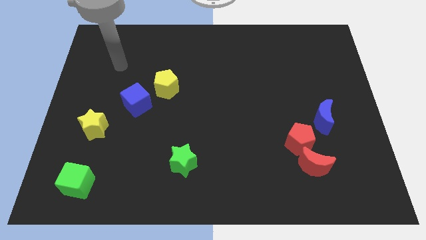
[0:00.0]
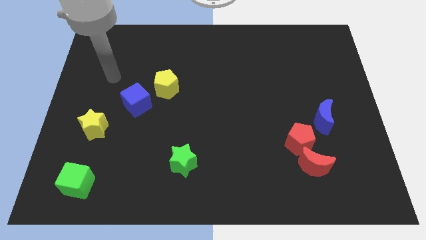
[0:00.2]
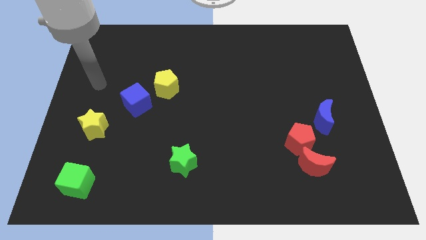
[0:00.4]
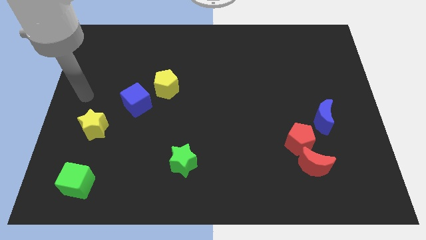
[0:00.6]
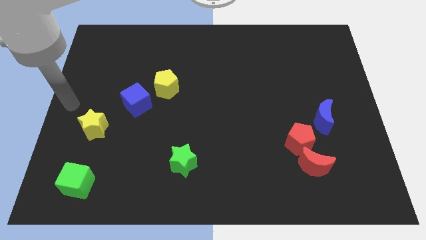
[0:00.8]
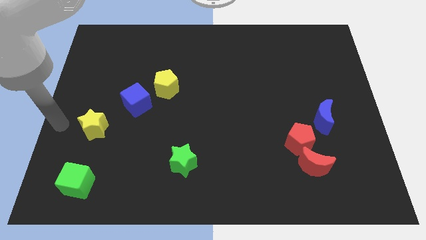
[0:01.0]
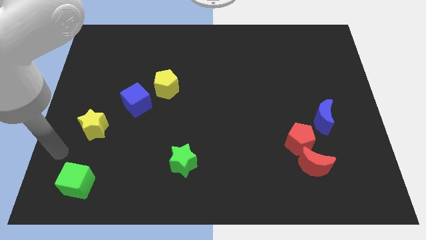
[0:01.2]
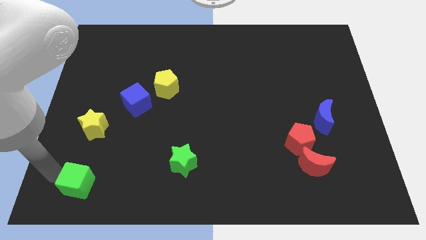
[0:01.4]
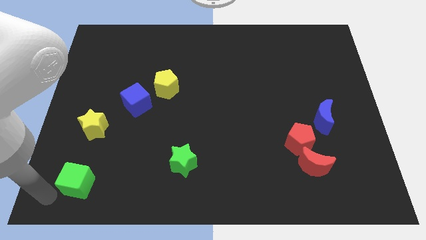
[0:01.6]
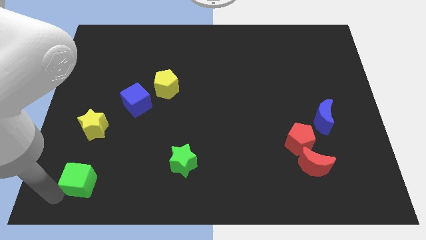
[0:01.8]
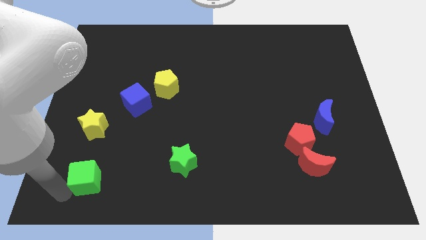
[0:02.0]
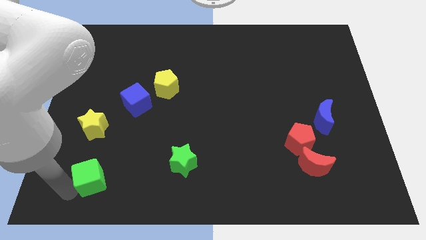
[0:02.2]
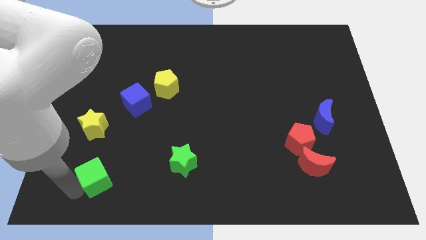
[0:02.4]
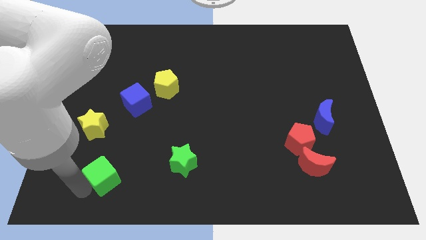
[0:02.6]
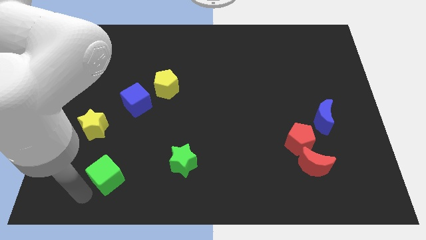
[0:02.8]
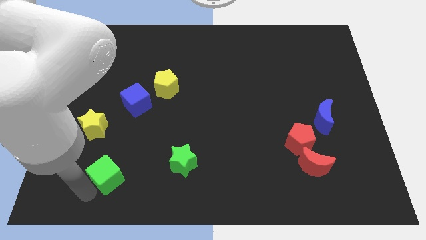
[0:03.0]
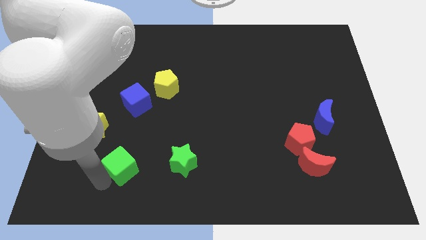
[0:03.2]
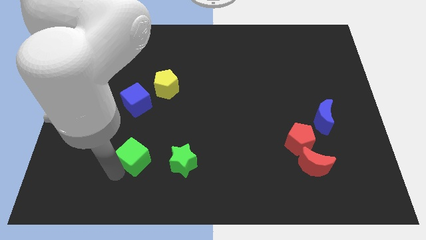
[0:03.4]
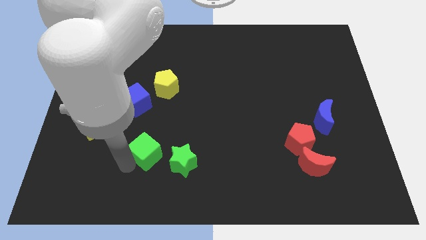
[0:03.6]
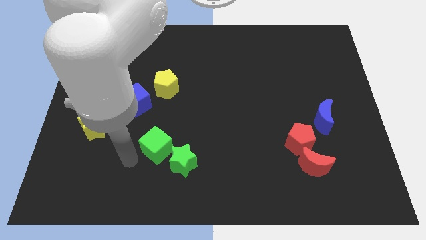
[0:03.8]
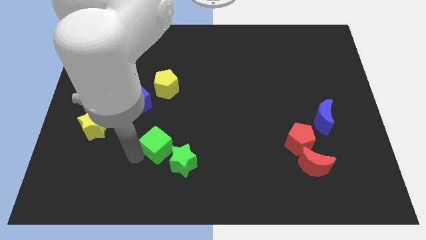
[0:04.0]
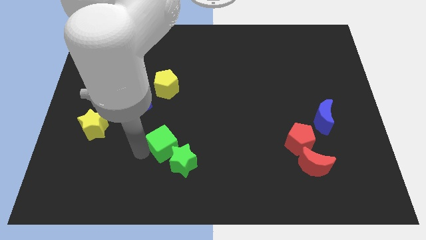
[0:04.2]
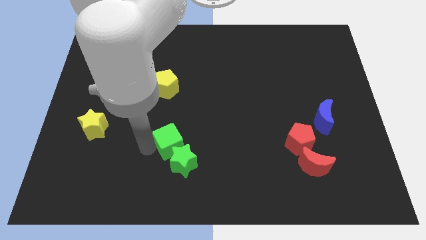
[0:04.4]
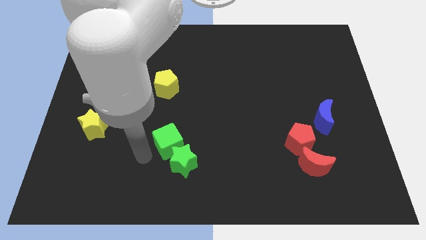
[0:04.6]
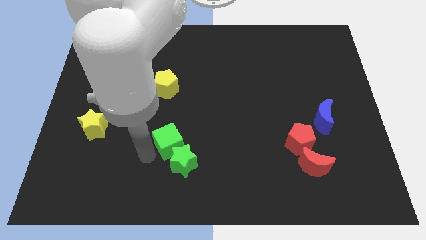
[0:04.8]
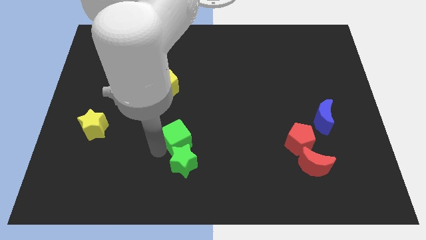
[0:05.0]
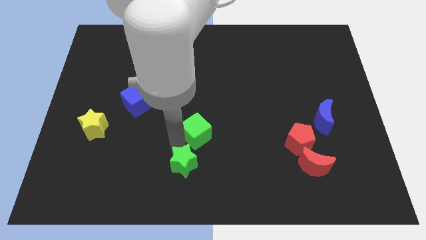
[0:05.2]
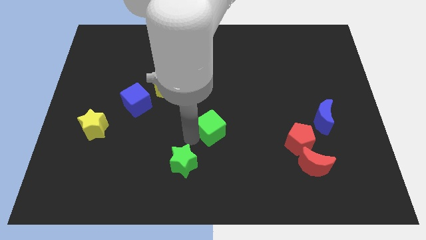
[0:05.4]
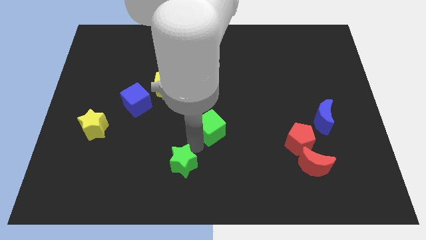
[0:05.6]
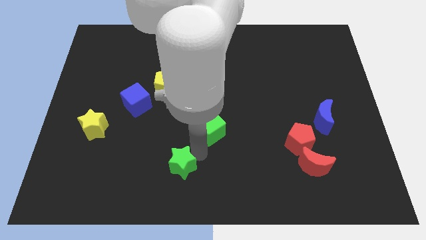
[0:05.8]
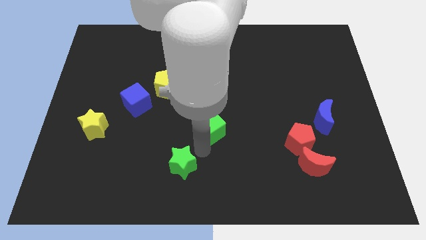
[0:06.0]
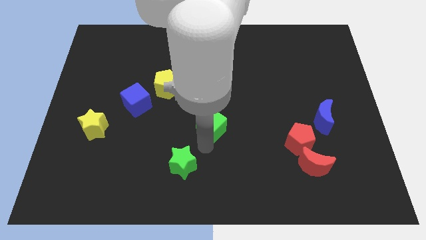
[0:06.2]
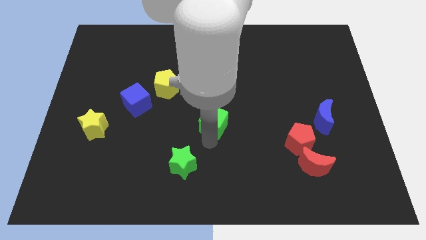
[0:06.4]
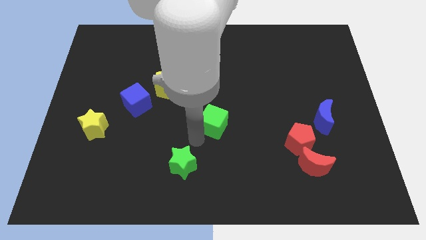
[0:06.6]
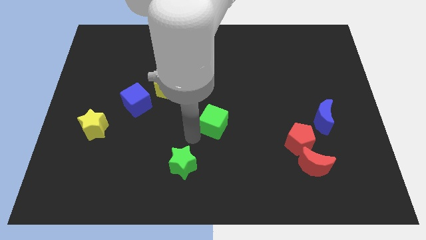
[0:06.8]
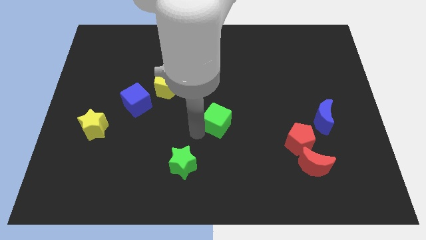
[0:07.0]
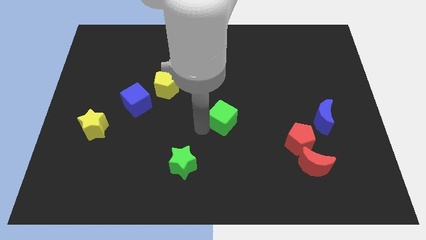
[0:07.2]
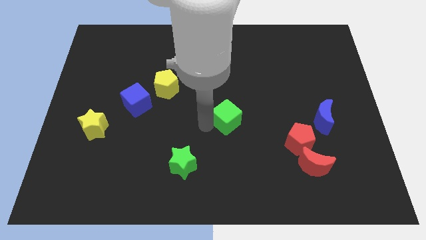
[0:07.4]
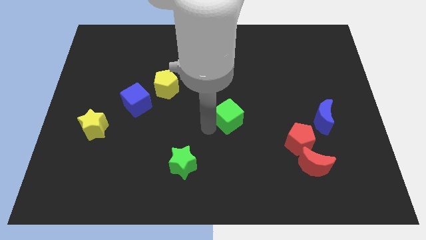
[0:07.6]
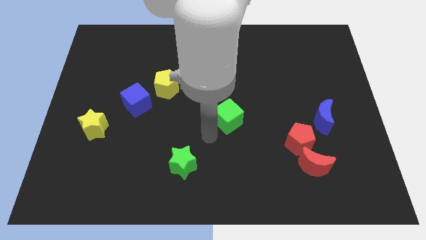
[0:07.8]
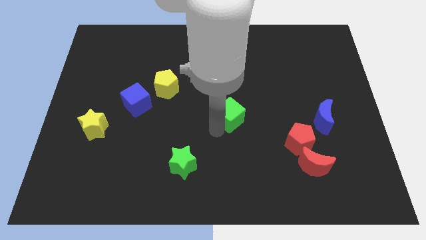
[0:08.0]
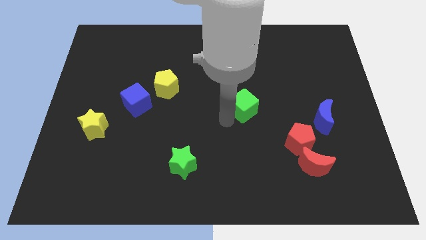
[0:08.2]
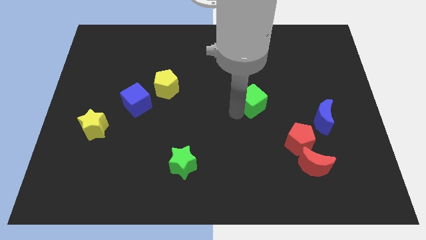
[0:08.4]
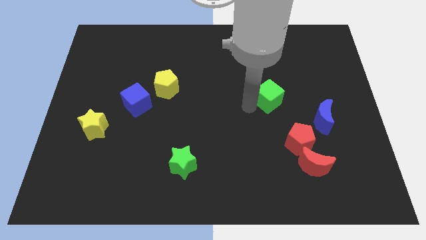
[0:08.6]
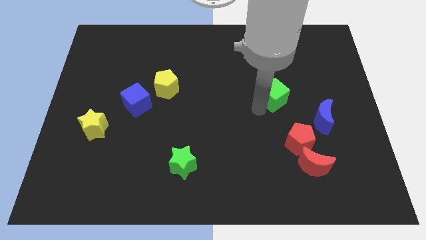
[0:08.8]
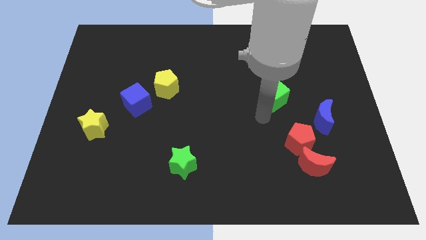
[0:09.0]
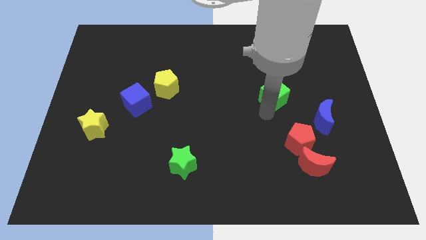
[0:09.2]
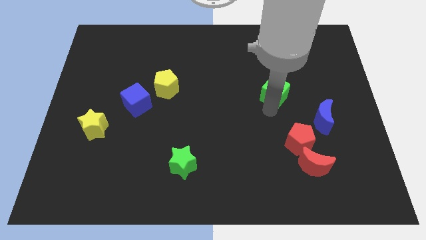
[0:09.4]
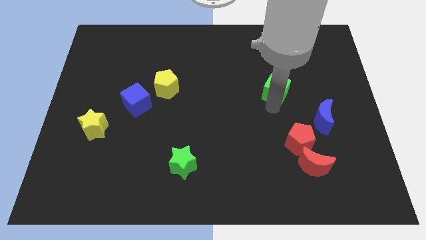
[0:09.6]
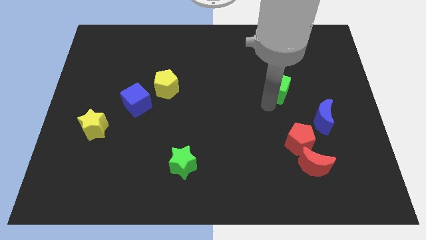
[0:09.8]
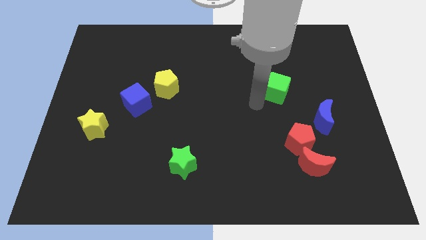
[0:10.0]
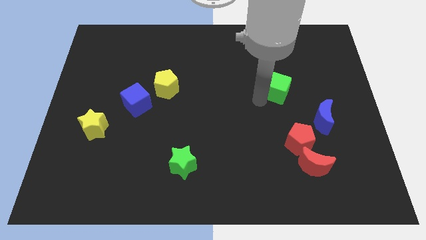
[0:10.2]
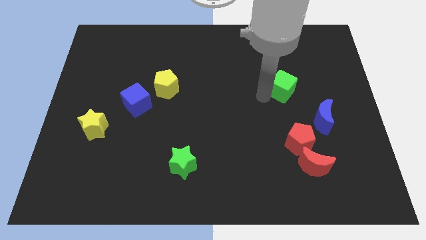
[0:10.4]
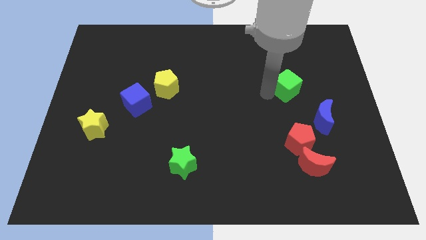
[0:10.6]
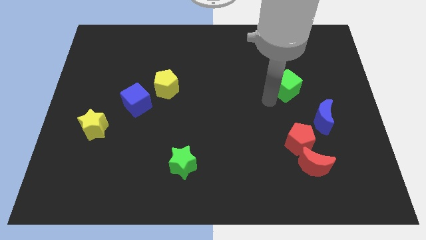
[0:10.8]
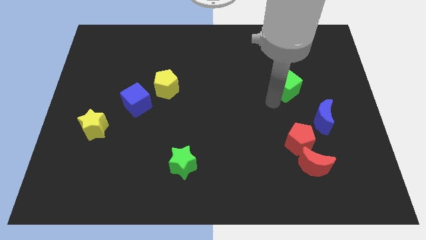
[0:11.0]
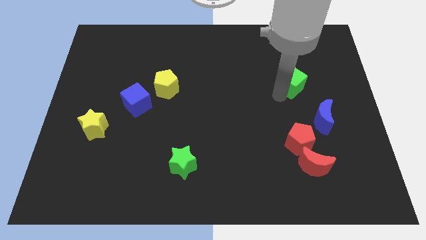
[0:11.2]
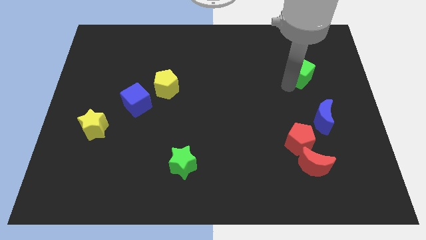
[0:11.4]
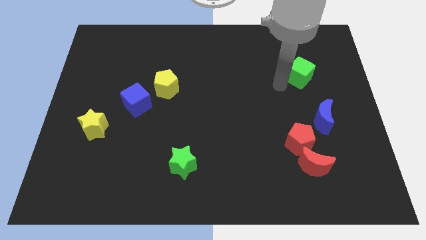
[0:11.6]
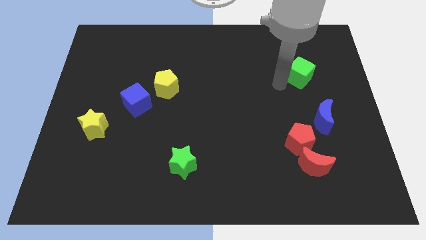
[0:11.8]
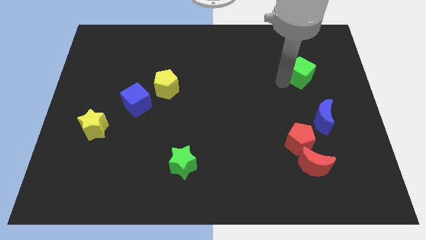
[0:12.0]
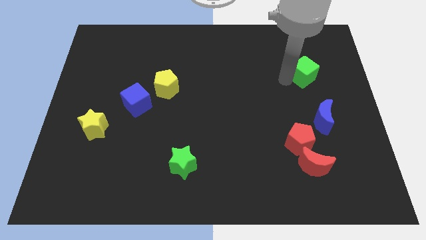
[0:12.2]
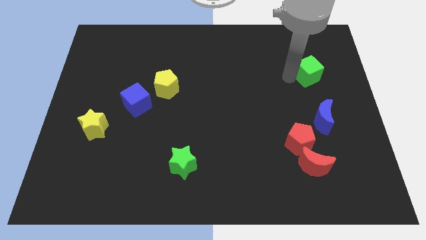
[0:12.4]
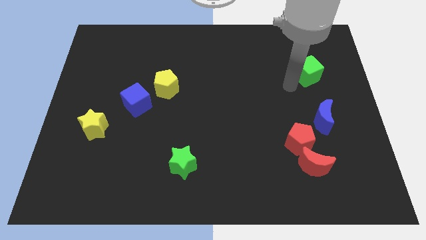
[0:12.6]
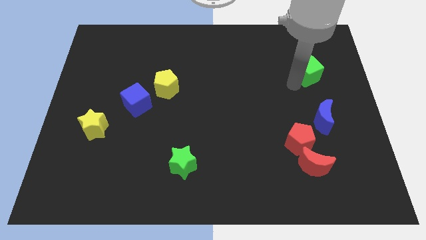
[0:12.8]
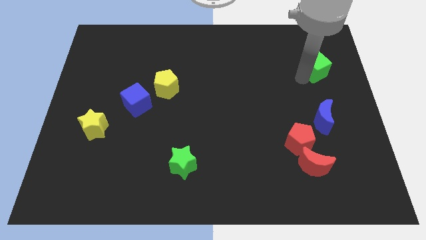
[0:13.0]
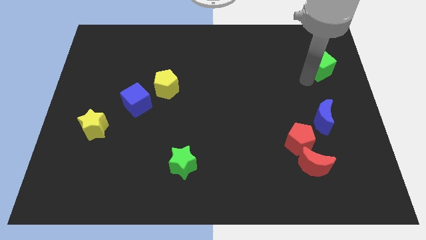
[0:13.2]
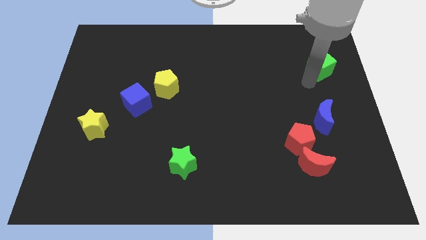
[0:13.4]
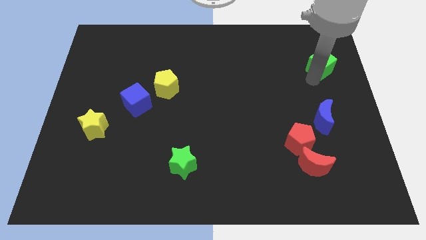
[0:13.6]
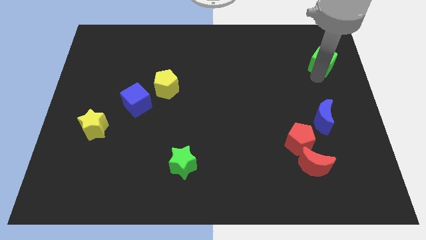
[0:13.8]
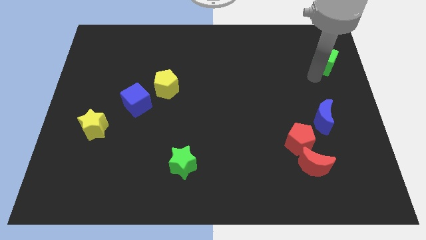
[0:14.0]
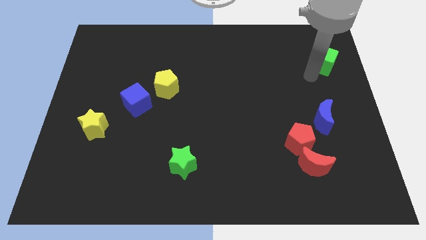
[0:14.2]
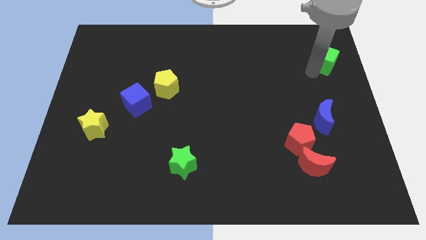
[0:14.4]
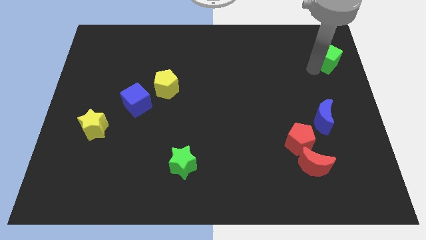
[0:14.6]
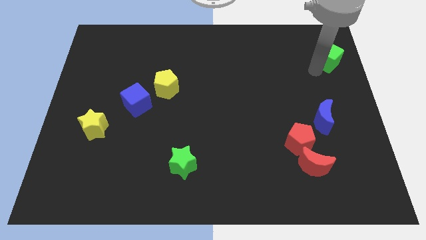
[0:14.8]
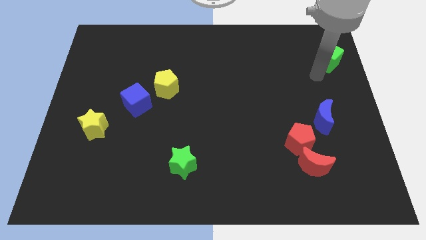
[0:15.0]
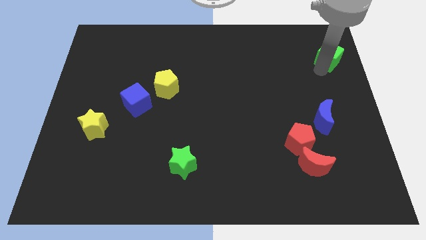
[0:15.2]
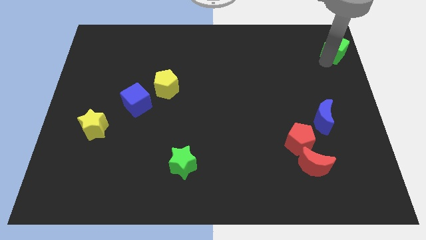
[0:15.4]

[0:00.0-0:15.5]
push the green cube to the top right
